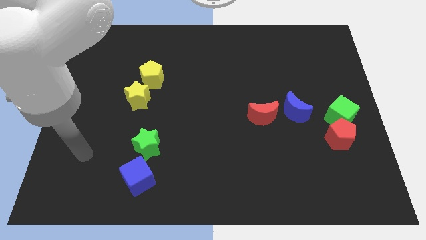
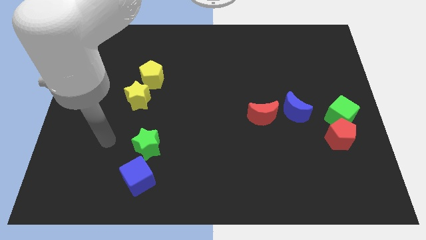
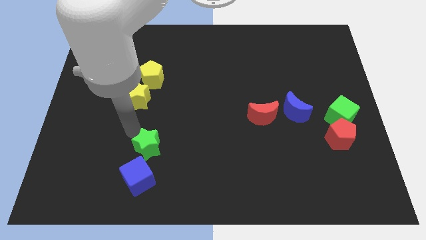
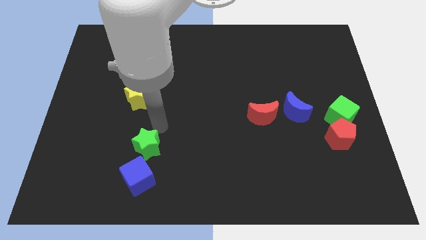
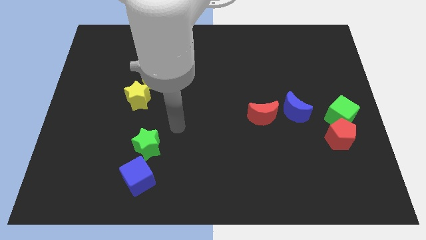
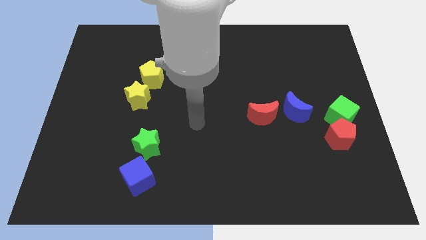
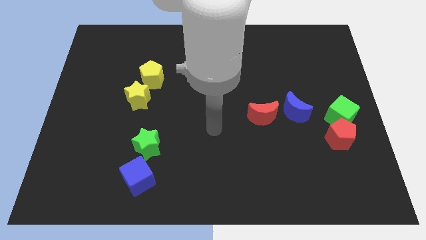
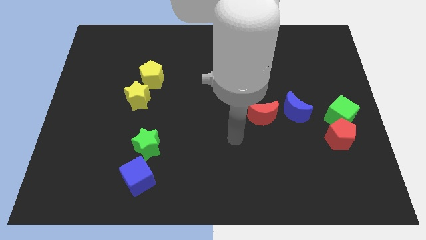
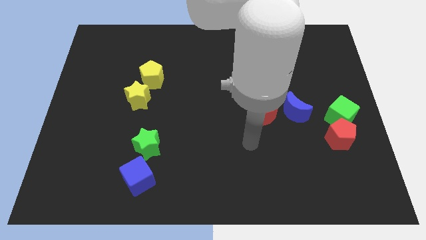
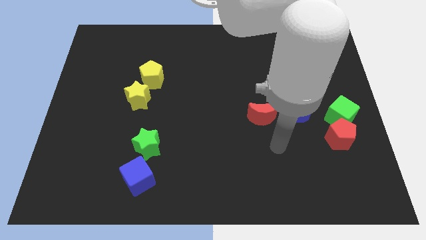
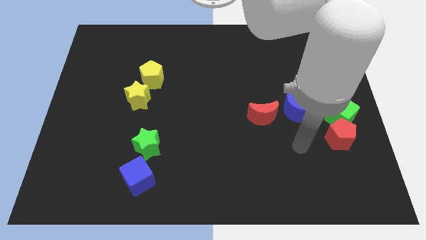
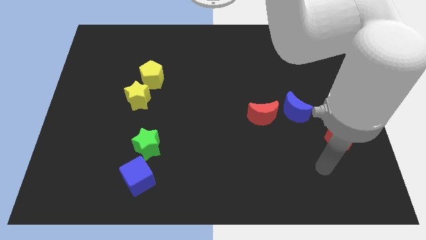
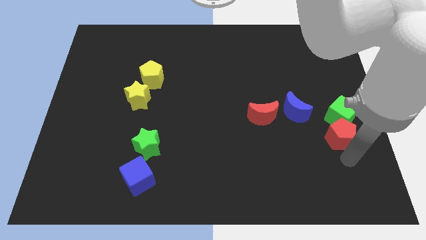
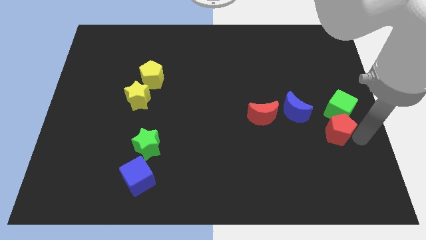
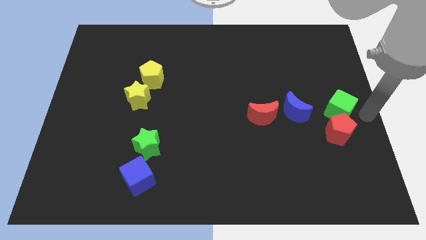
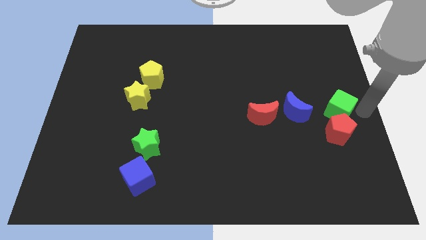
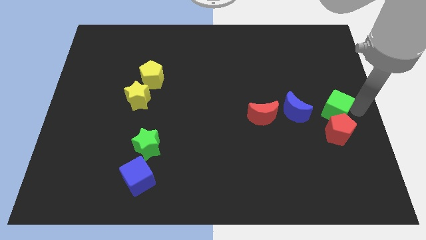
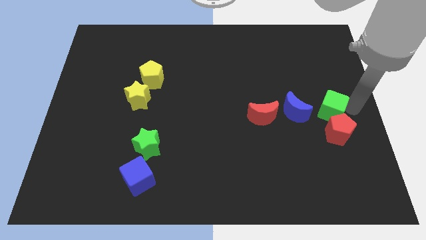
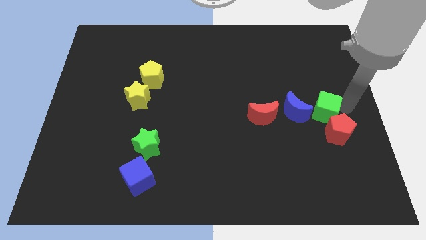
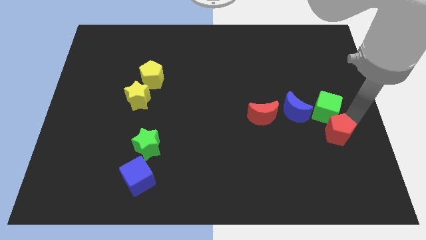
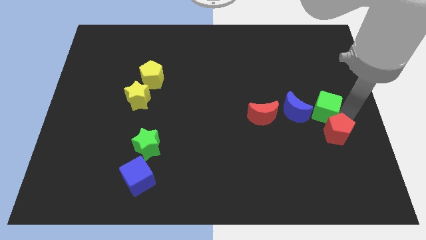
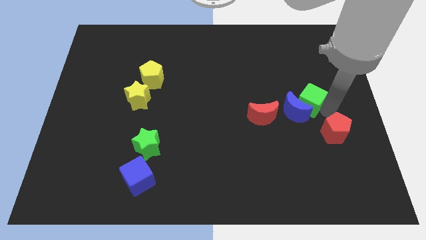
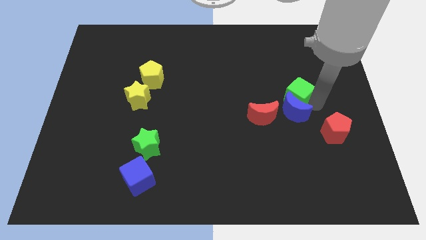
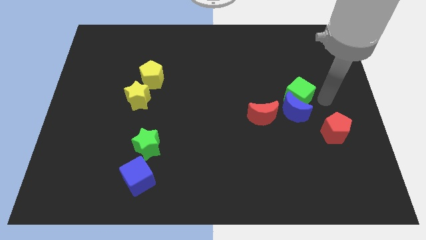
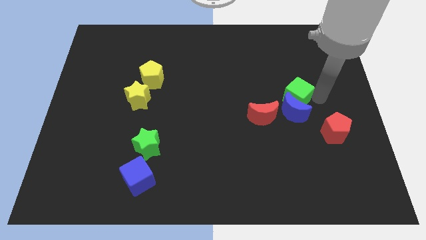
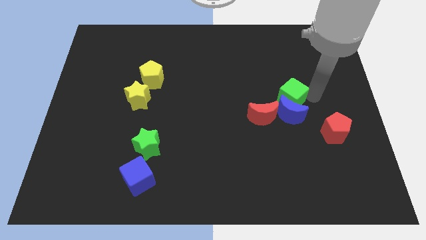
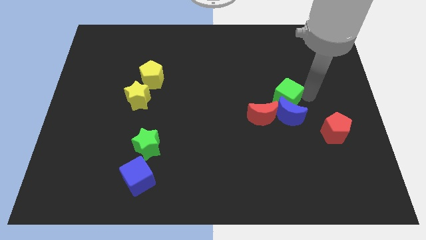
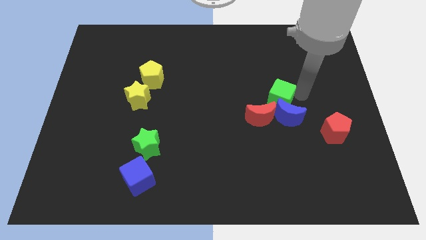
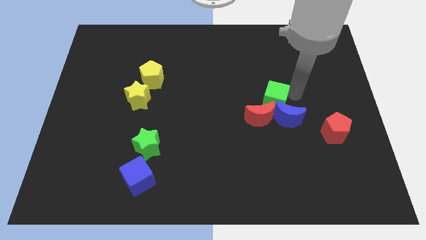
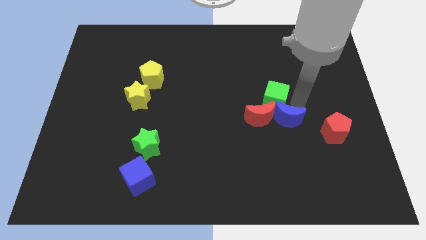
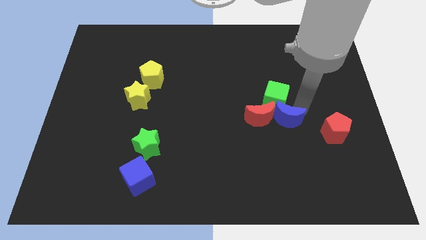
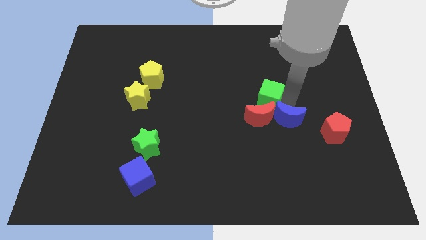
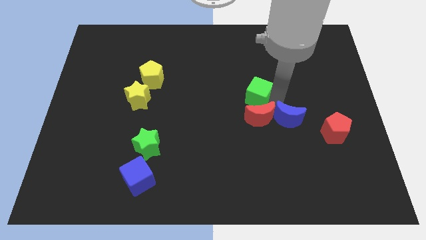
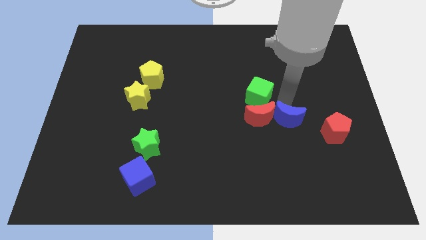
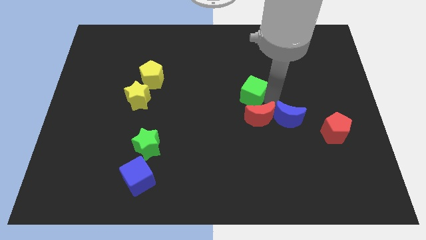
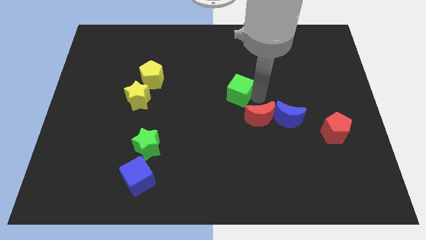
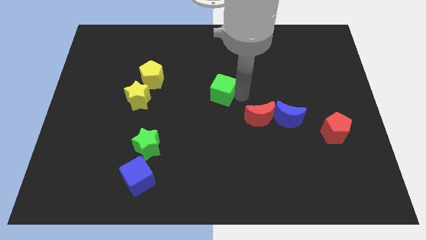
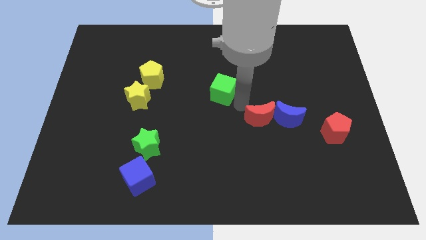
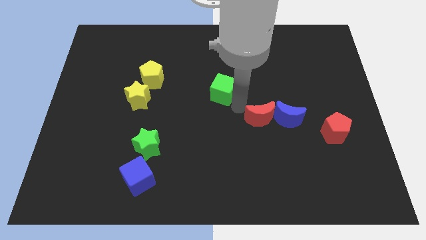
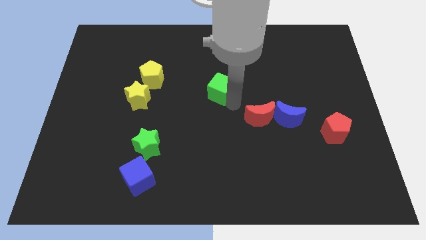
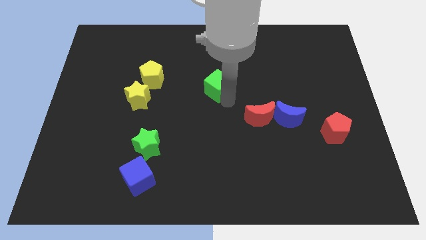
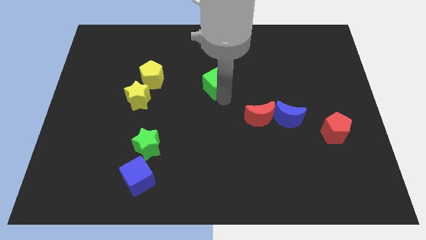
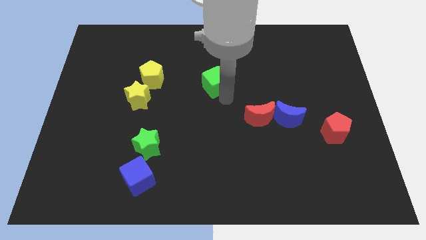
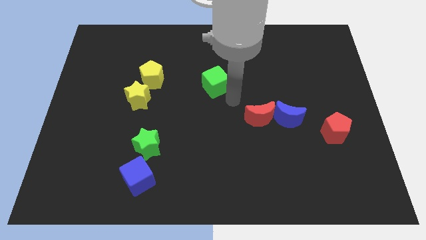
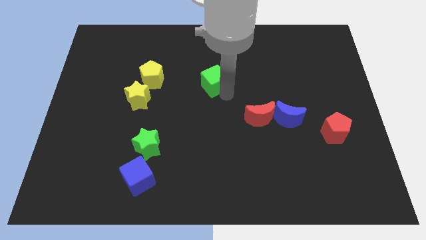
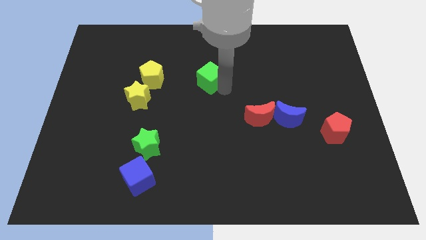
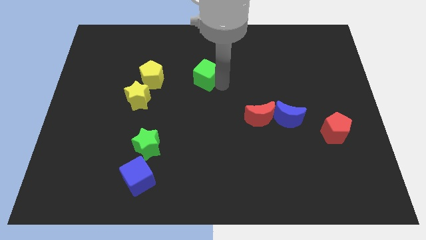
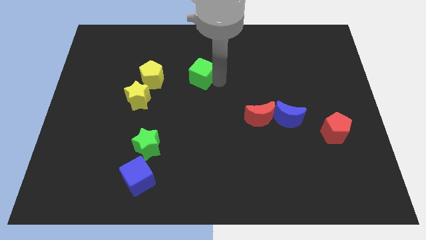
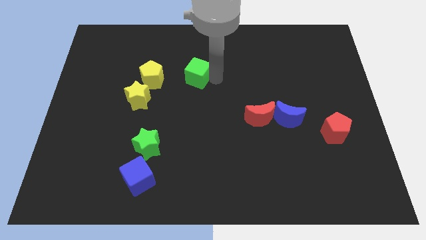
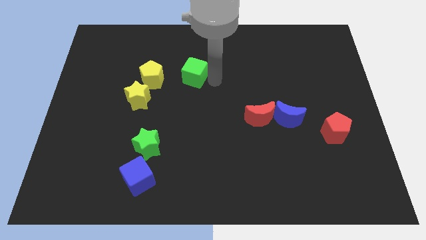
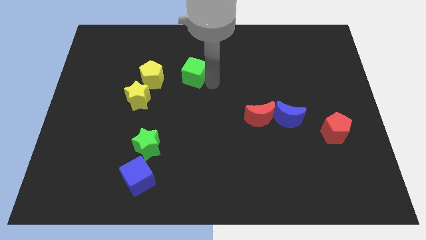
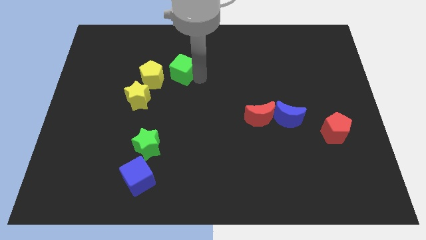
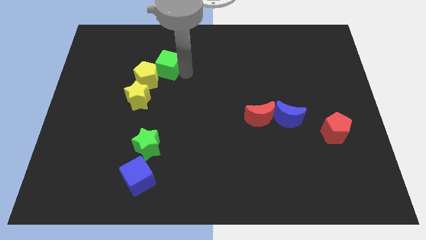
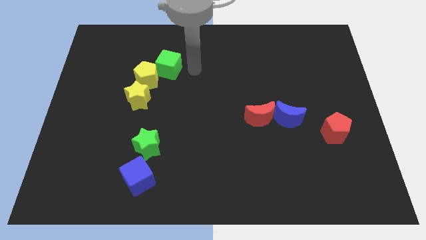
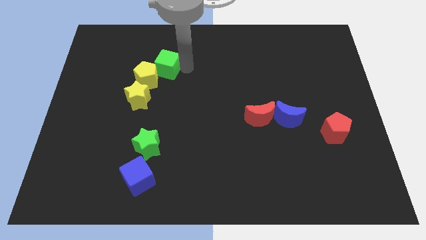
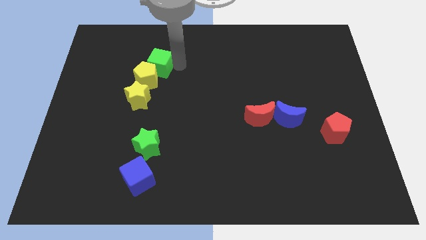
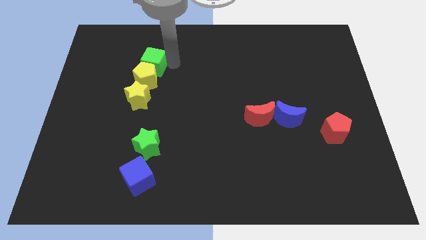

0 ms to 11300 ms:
push the green cube to the top left side of the yellow pentagon
